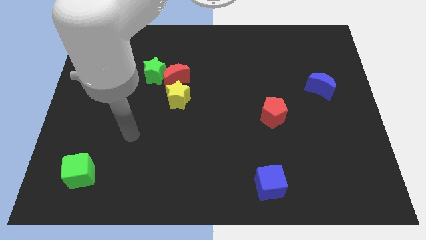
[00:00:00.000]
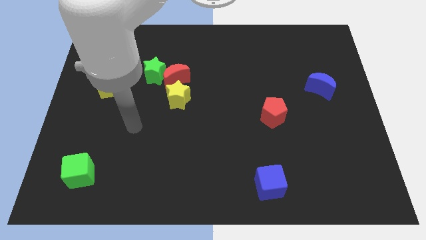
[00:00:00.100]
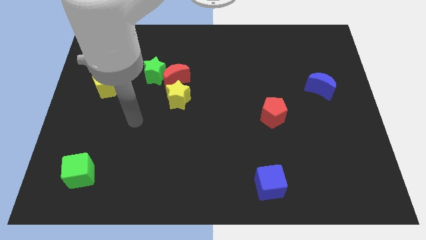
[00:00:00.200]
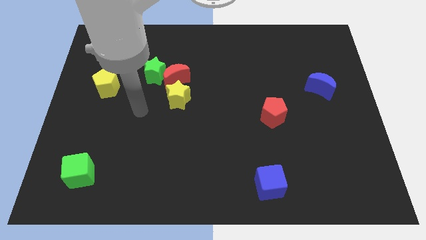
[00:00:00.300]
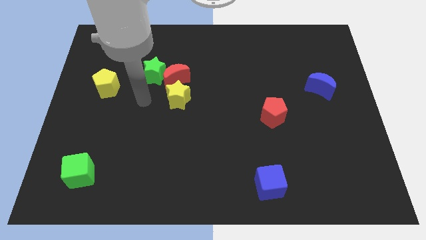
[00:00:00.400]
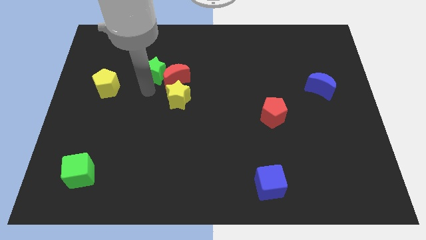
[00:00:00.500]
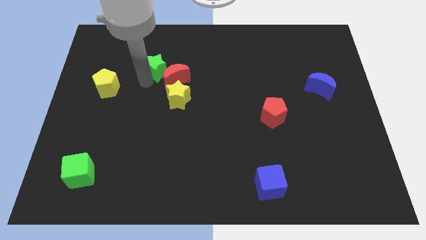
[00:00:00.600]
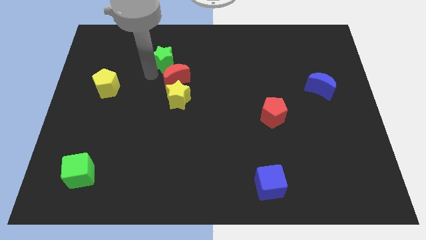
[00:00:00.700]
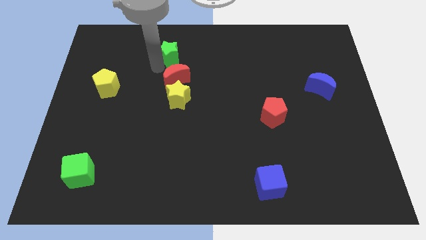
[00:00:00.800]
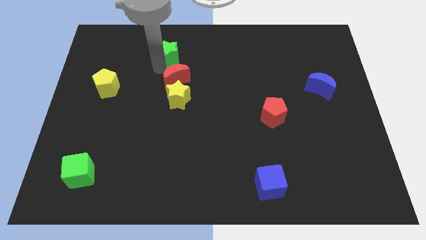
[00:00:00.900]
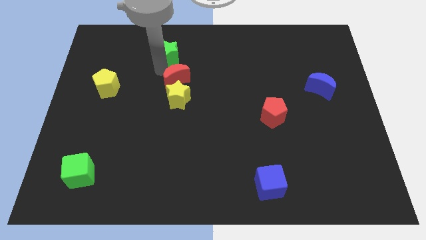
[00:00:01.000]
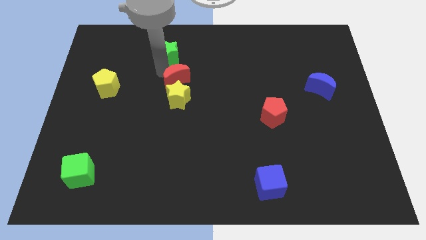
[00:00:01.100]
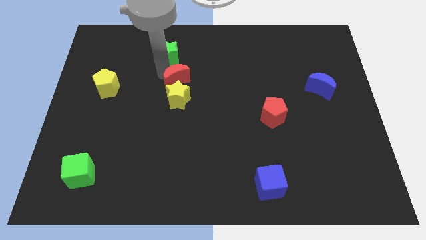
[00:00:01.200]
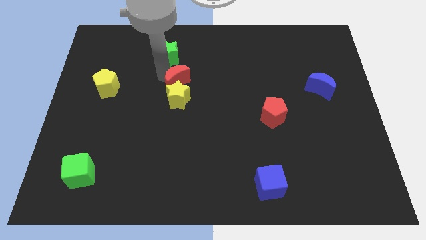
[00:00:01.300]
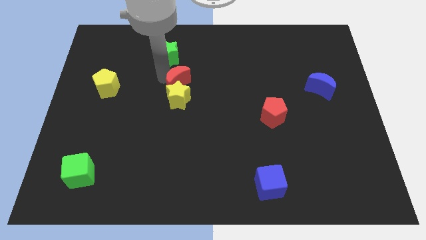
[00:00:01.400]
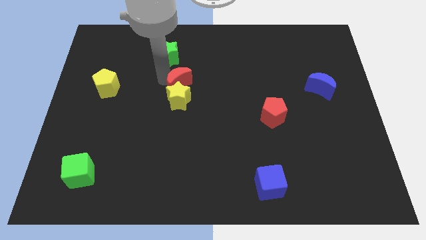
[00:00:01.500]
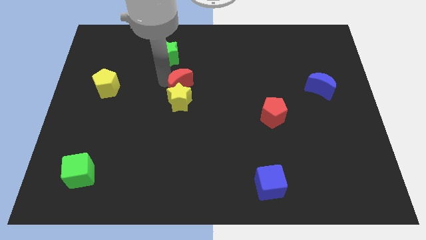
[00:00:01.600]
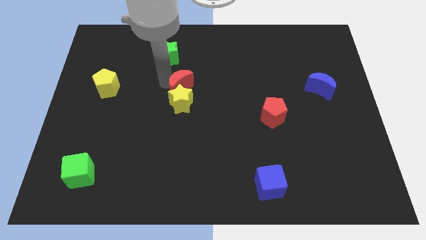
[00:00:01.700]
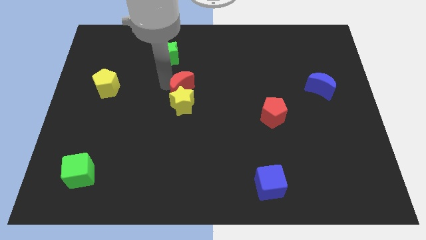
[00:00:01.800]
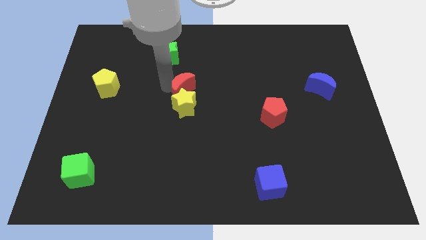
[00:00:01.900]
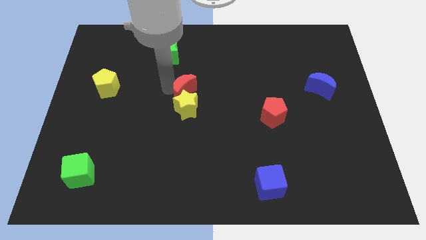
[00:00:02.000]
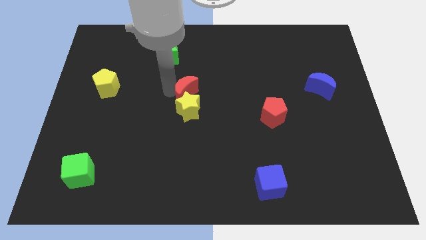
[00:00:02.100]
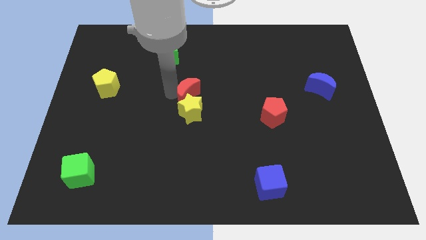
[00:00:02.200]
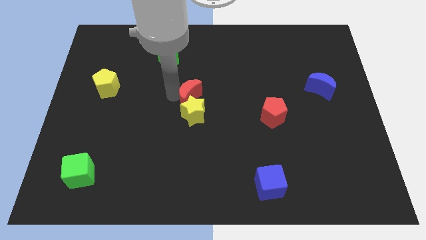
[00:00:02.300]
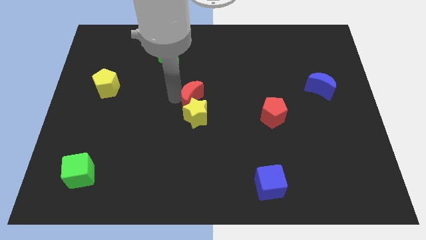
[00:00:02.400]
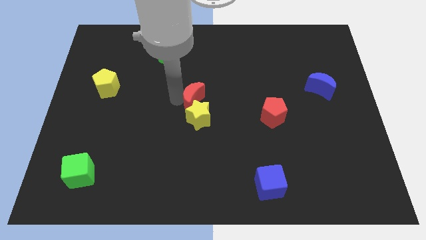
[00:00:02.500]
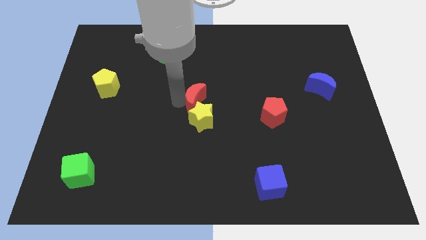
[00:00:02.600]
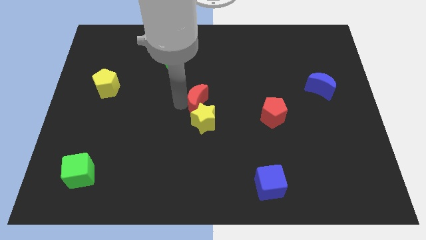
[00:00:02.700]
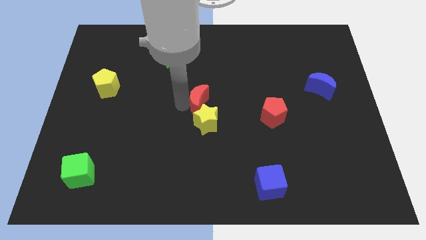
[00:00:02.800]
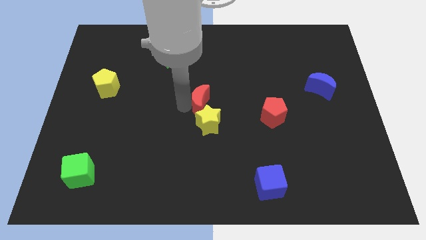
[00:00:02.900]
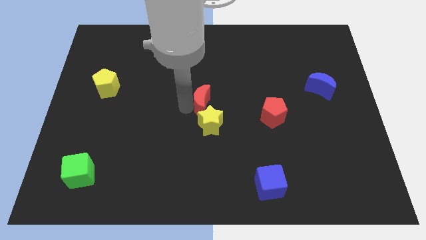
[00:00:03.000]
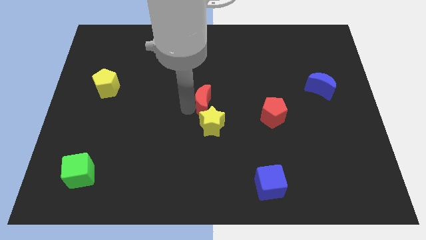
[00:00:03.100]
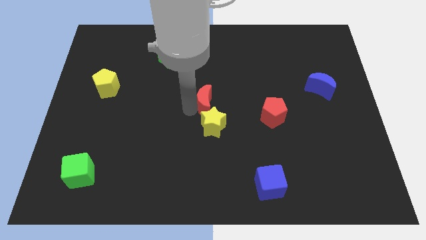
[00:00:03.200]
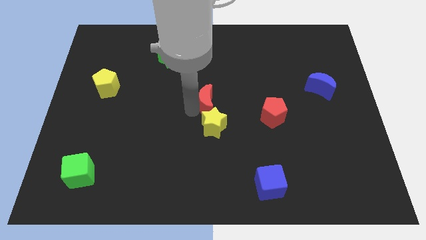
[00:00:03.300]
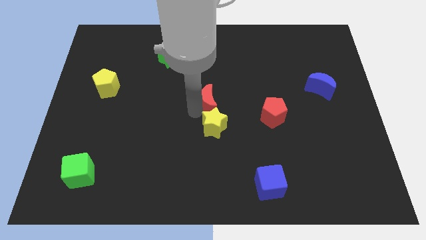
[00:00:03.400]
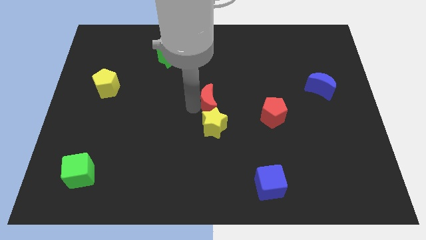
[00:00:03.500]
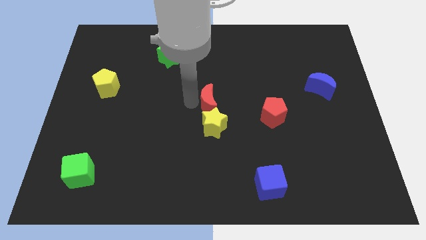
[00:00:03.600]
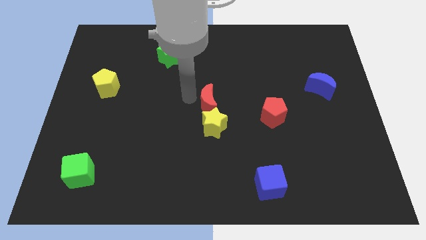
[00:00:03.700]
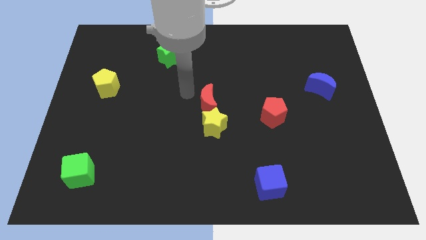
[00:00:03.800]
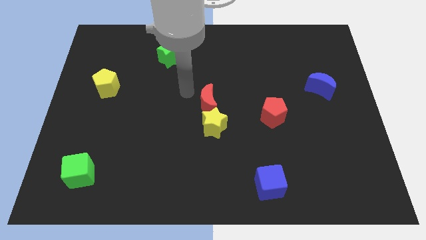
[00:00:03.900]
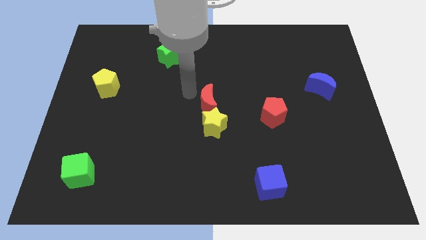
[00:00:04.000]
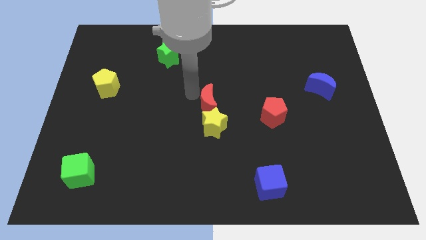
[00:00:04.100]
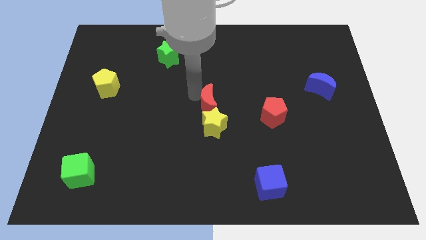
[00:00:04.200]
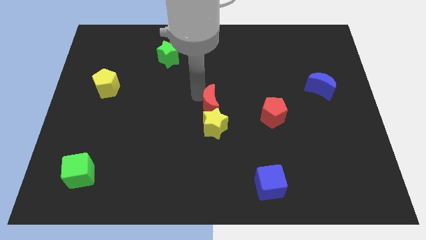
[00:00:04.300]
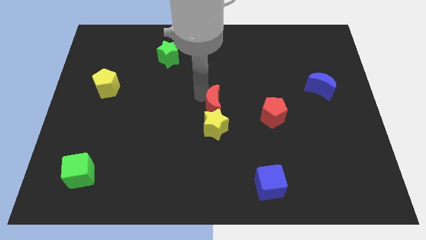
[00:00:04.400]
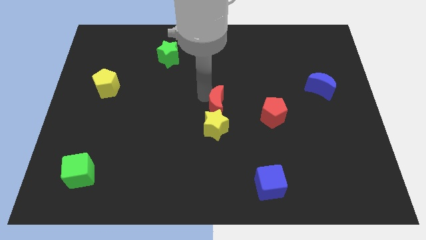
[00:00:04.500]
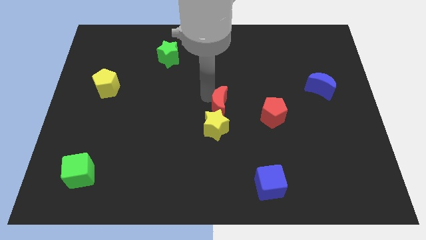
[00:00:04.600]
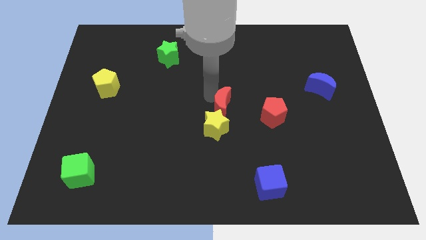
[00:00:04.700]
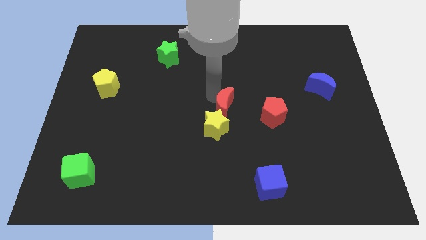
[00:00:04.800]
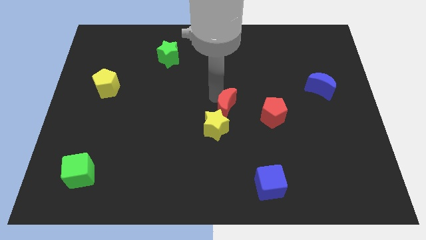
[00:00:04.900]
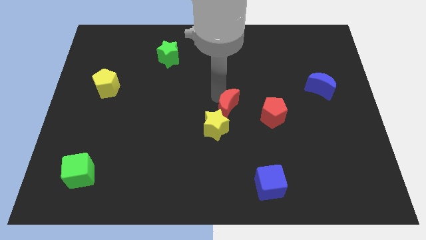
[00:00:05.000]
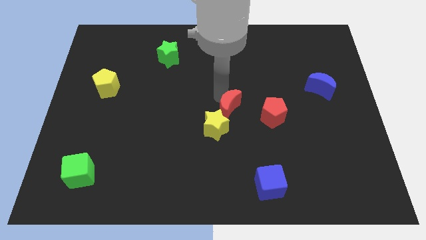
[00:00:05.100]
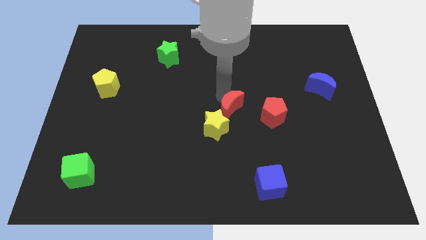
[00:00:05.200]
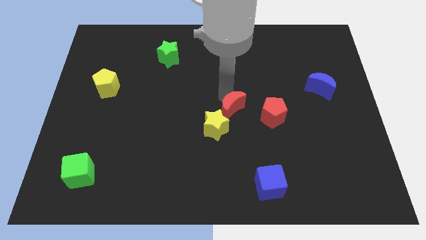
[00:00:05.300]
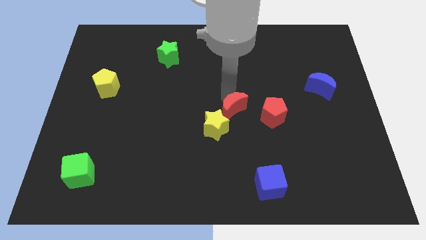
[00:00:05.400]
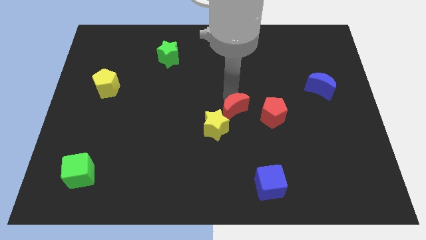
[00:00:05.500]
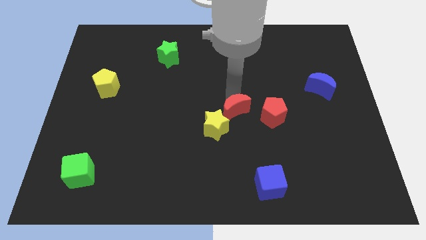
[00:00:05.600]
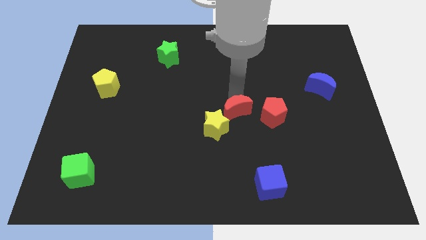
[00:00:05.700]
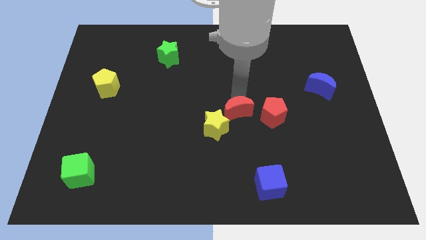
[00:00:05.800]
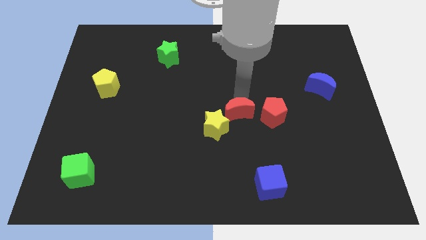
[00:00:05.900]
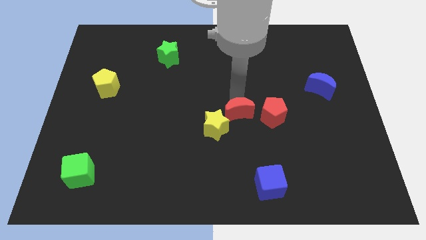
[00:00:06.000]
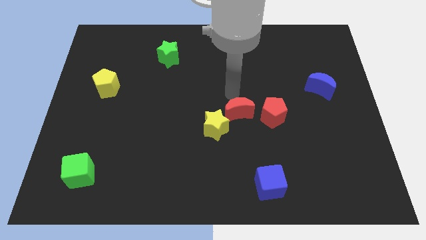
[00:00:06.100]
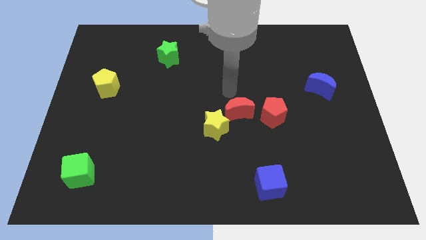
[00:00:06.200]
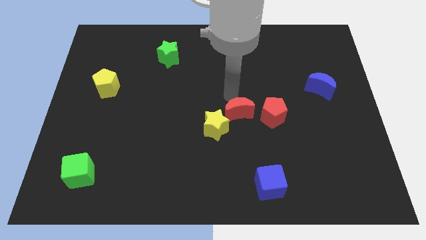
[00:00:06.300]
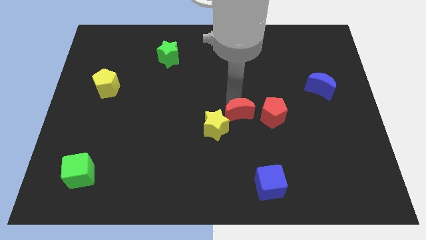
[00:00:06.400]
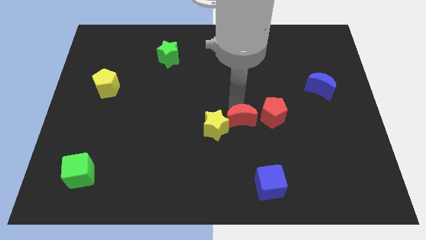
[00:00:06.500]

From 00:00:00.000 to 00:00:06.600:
push the red moon diagonally down and right

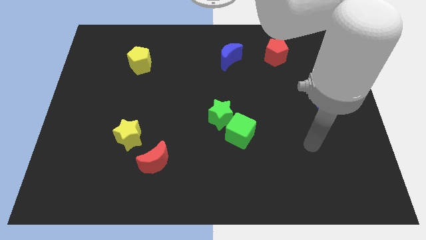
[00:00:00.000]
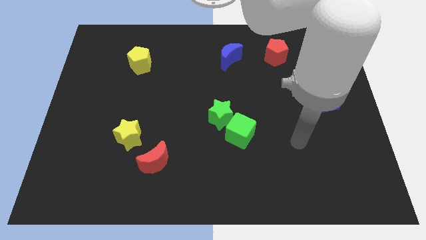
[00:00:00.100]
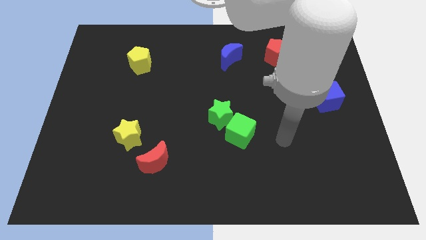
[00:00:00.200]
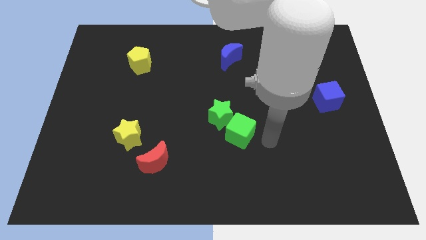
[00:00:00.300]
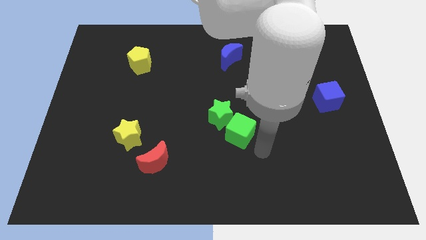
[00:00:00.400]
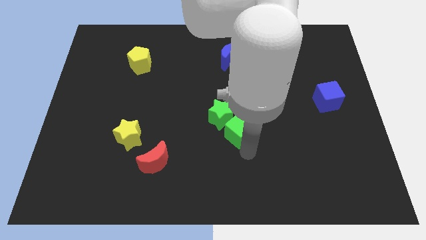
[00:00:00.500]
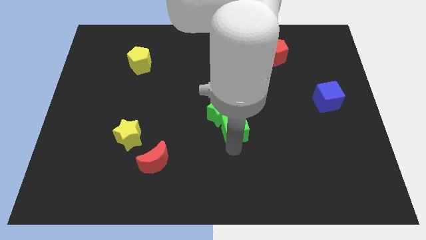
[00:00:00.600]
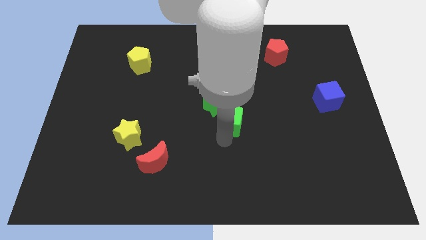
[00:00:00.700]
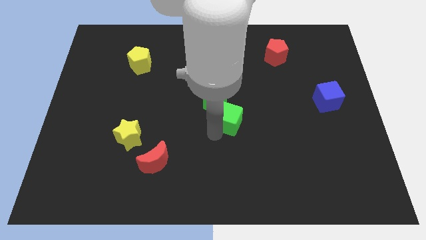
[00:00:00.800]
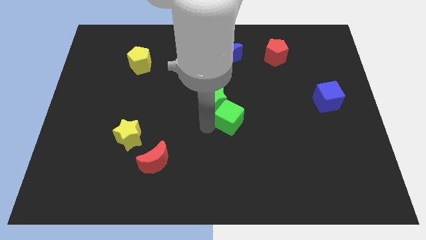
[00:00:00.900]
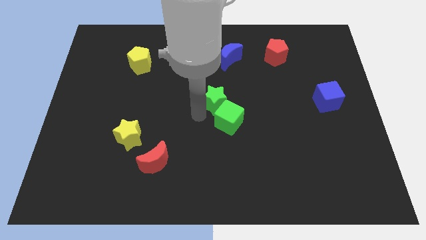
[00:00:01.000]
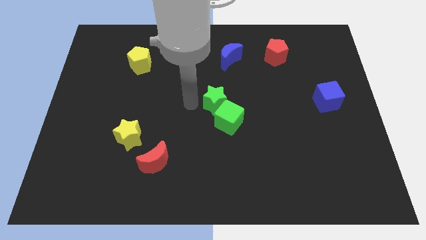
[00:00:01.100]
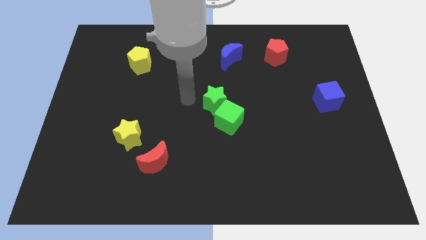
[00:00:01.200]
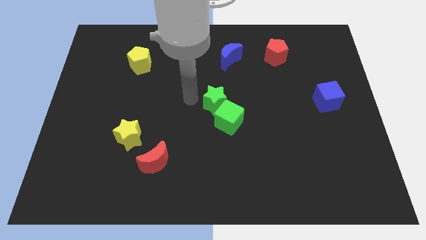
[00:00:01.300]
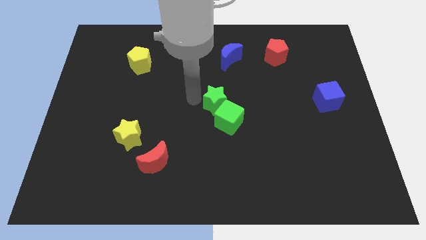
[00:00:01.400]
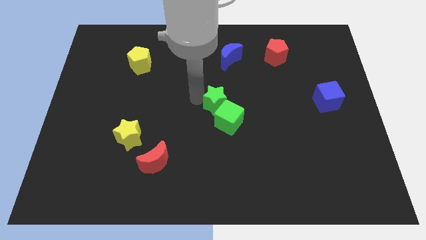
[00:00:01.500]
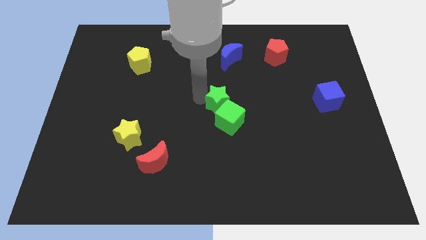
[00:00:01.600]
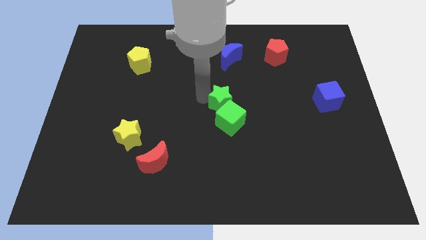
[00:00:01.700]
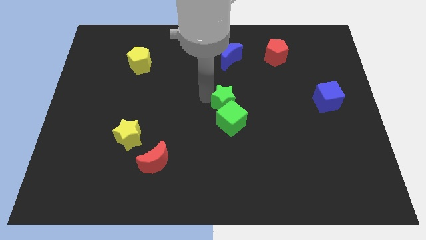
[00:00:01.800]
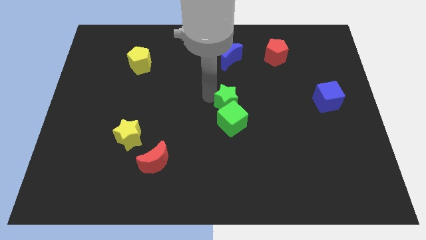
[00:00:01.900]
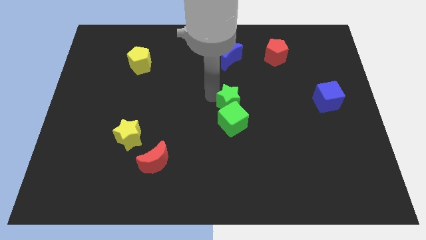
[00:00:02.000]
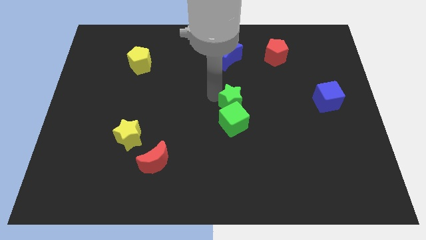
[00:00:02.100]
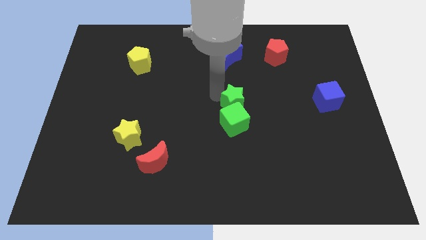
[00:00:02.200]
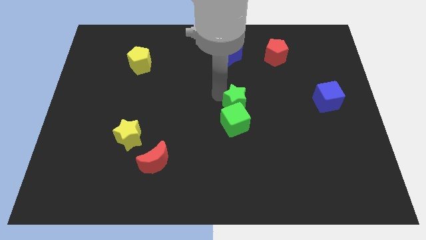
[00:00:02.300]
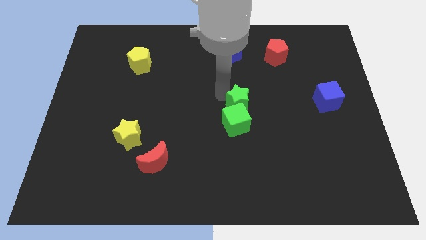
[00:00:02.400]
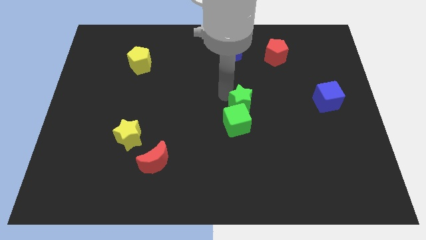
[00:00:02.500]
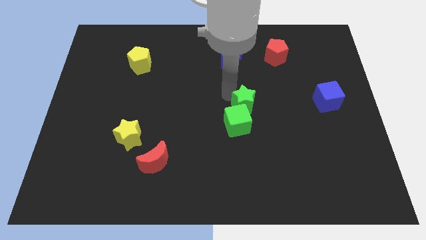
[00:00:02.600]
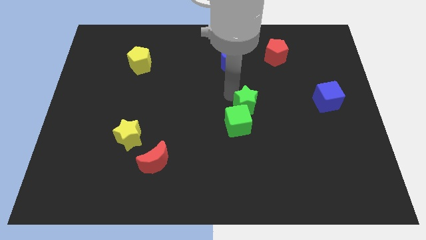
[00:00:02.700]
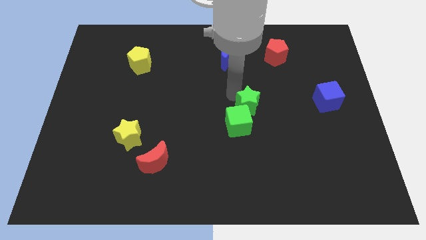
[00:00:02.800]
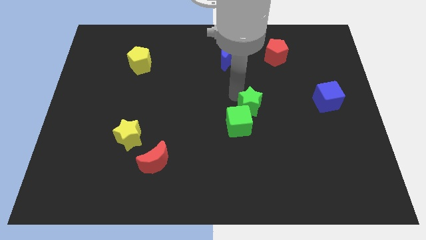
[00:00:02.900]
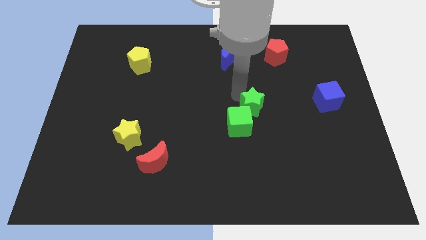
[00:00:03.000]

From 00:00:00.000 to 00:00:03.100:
push the green star a bit to the right
